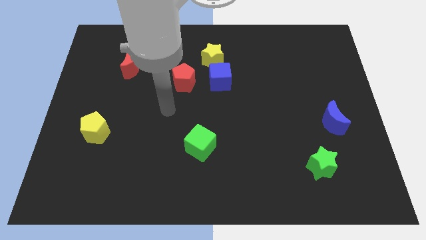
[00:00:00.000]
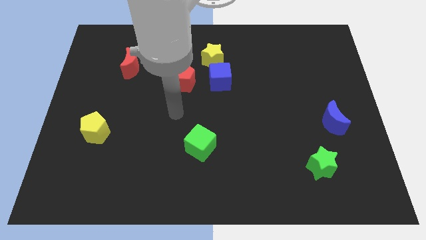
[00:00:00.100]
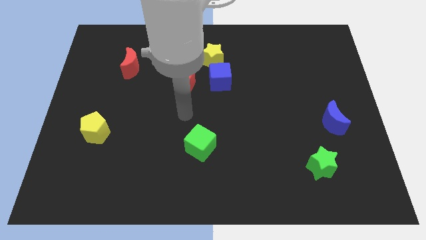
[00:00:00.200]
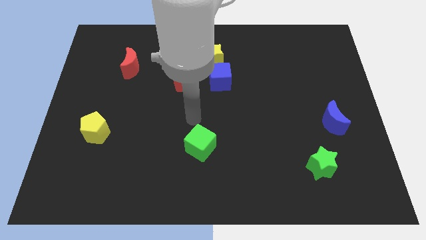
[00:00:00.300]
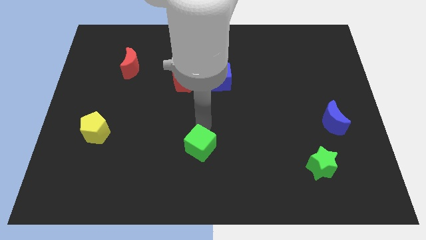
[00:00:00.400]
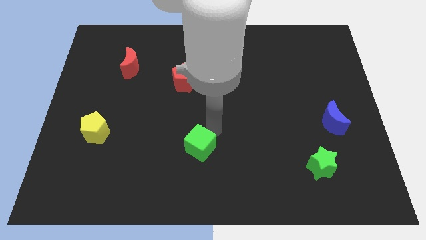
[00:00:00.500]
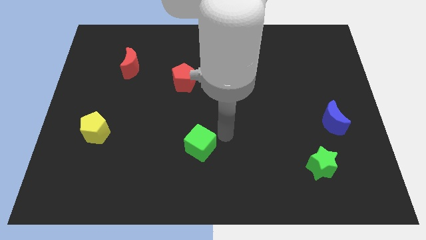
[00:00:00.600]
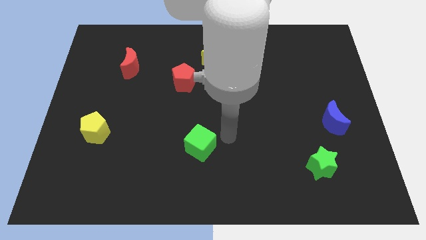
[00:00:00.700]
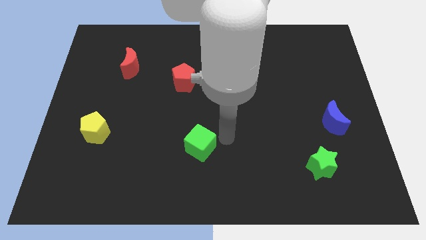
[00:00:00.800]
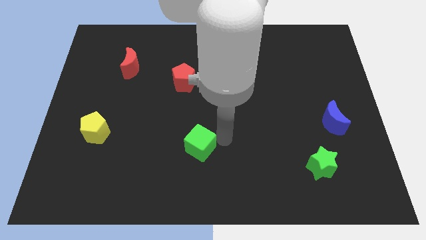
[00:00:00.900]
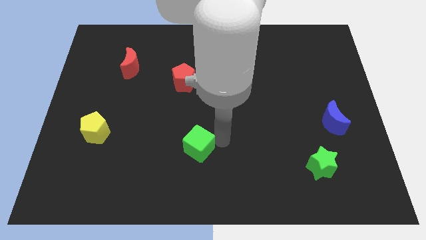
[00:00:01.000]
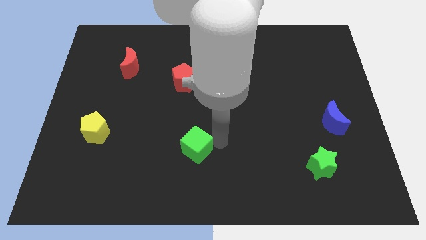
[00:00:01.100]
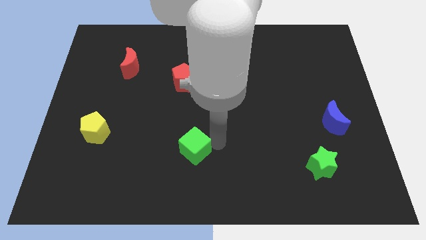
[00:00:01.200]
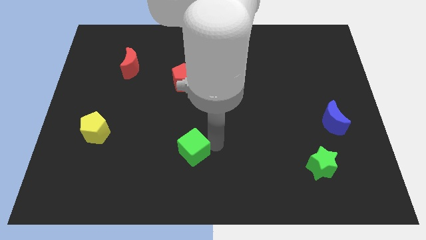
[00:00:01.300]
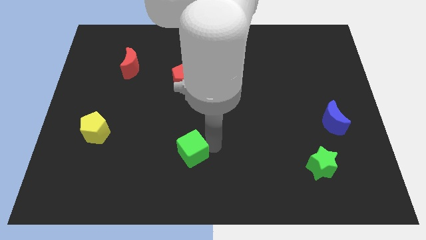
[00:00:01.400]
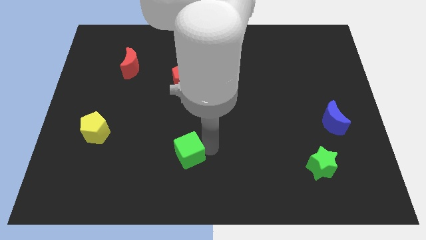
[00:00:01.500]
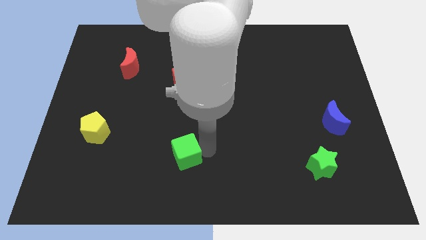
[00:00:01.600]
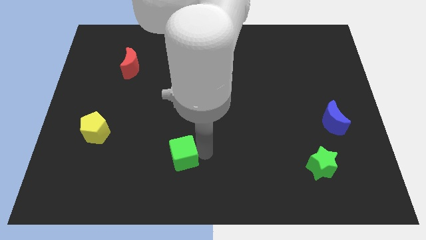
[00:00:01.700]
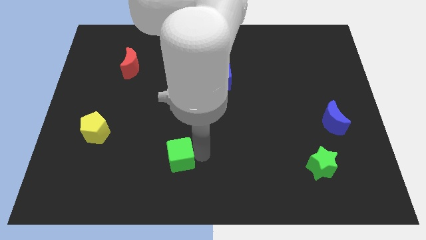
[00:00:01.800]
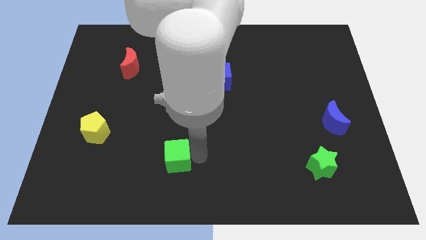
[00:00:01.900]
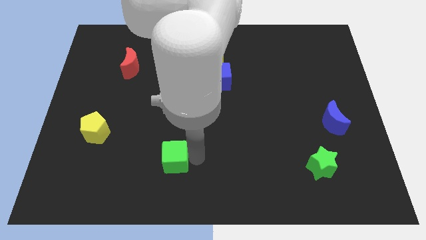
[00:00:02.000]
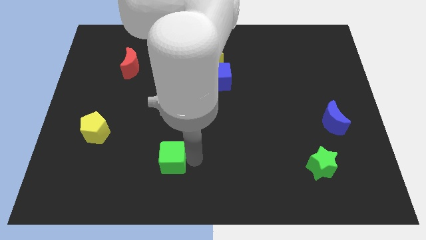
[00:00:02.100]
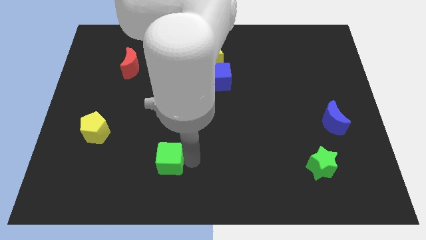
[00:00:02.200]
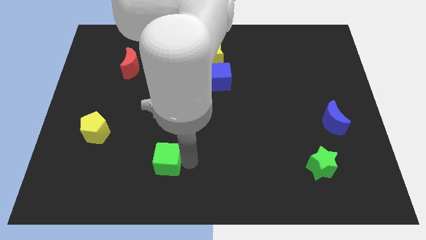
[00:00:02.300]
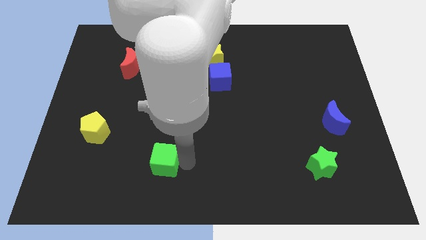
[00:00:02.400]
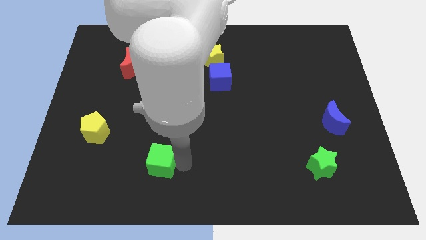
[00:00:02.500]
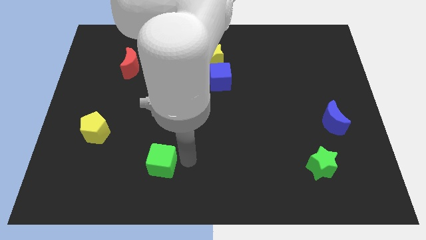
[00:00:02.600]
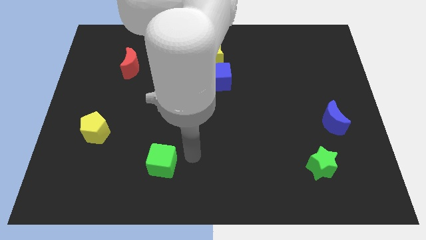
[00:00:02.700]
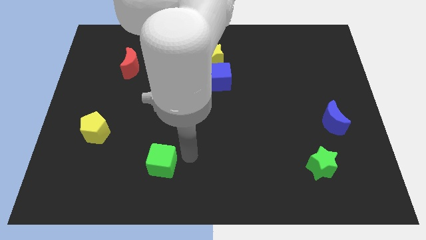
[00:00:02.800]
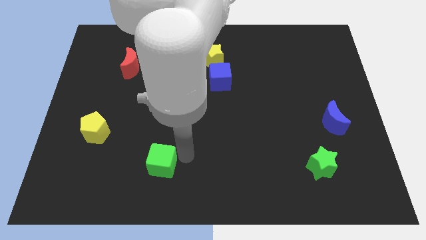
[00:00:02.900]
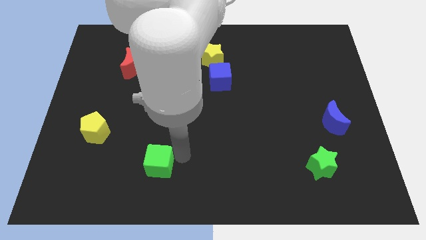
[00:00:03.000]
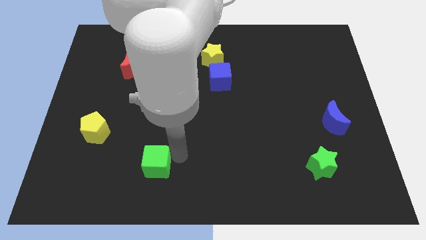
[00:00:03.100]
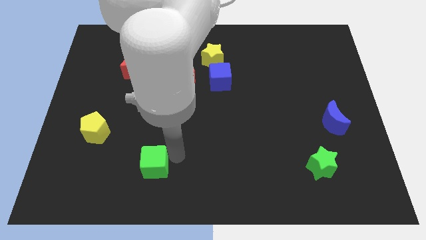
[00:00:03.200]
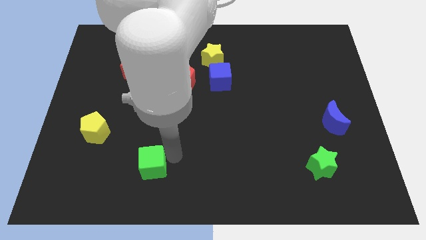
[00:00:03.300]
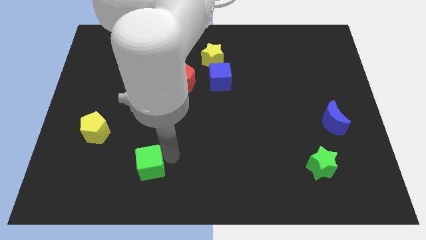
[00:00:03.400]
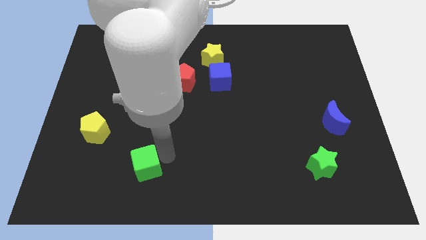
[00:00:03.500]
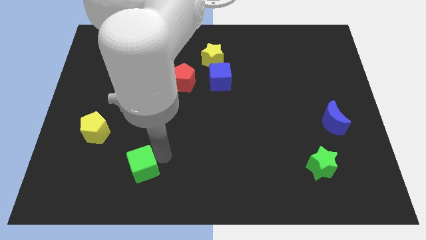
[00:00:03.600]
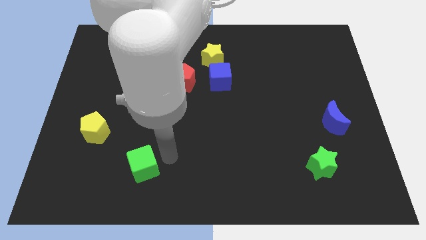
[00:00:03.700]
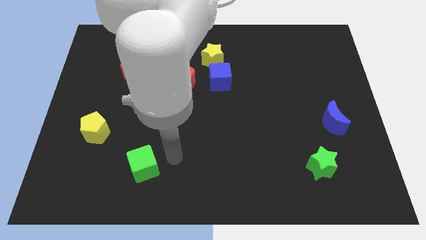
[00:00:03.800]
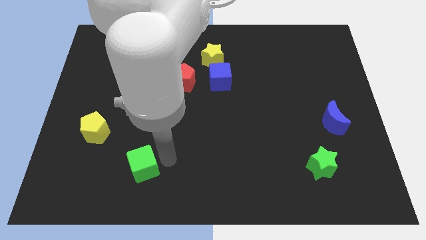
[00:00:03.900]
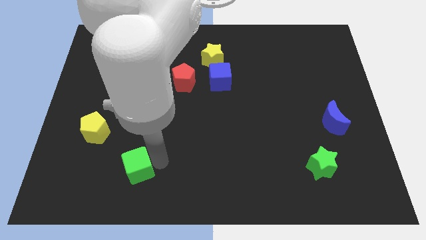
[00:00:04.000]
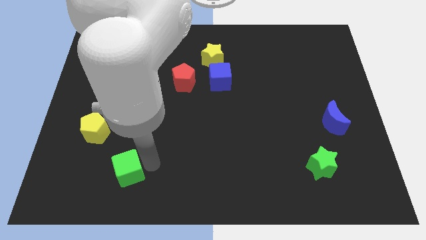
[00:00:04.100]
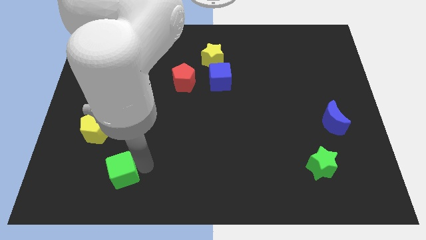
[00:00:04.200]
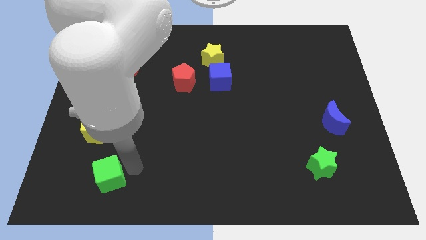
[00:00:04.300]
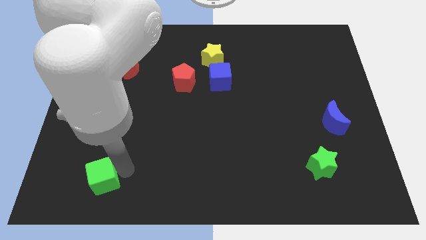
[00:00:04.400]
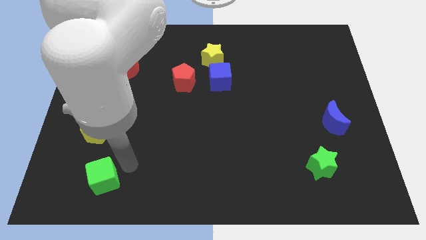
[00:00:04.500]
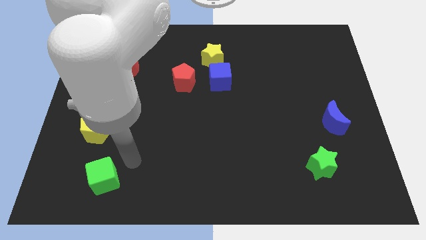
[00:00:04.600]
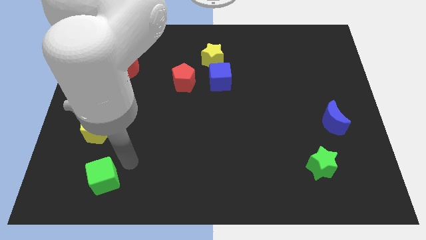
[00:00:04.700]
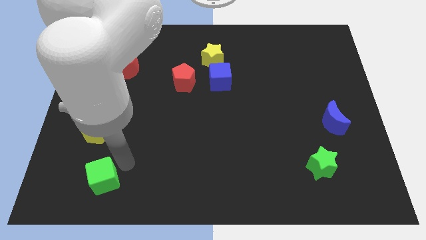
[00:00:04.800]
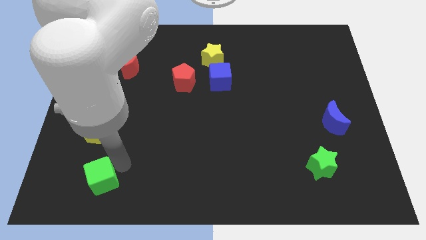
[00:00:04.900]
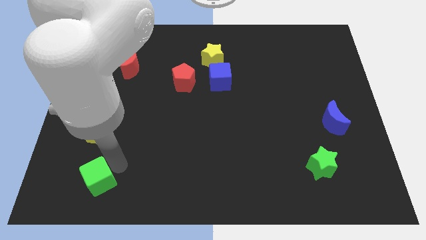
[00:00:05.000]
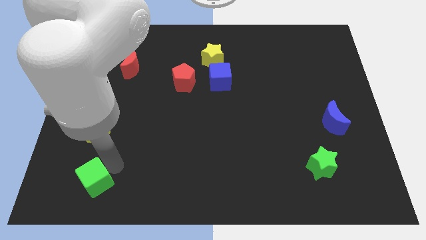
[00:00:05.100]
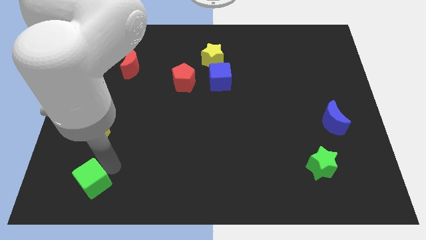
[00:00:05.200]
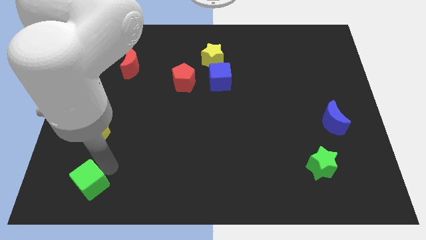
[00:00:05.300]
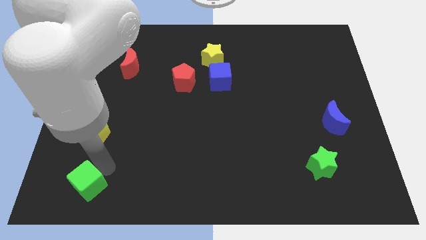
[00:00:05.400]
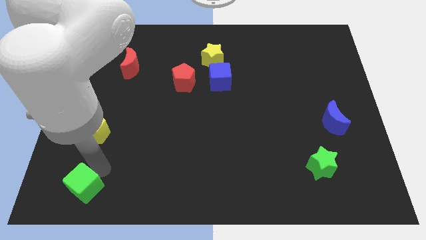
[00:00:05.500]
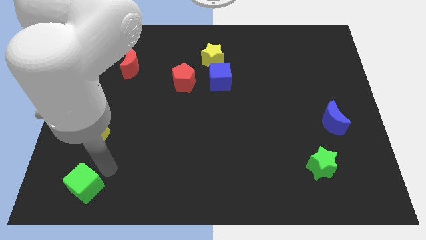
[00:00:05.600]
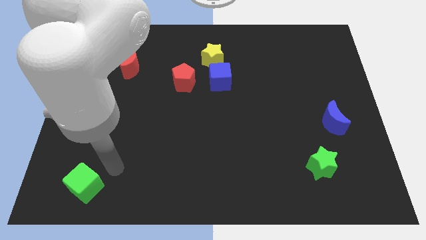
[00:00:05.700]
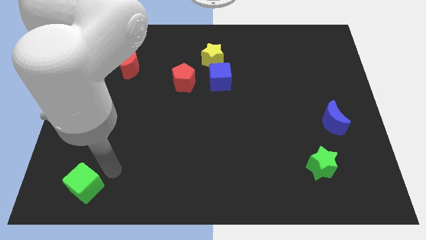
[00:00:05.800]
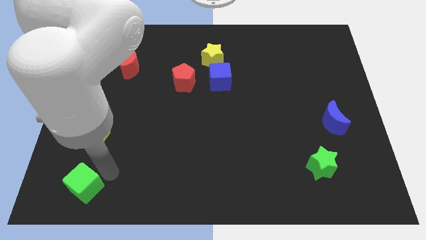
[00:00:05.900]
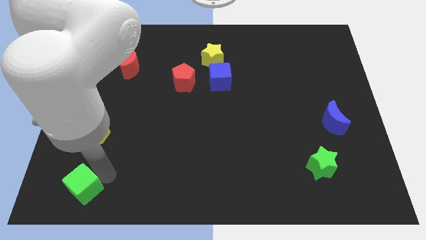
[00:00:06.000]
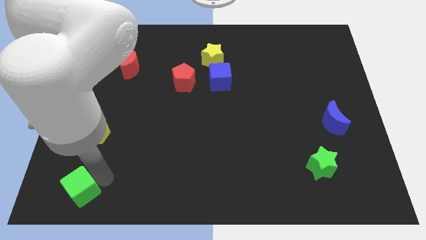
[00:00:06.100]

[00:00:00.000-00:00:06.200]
push the green cube to the lower left corner
